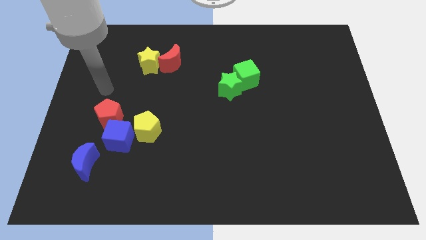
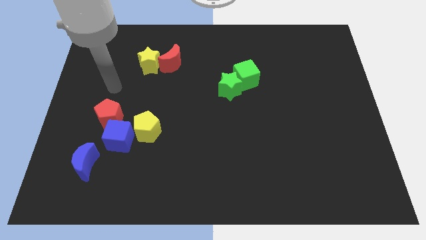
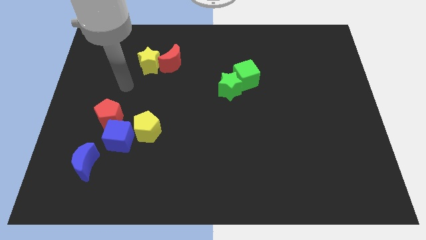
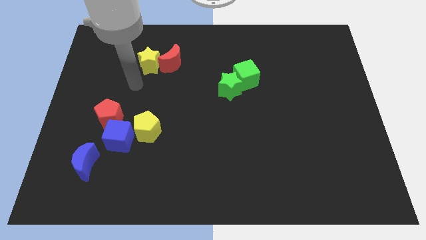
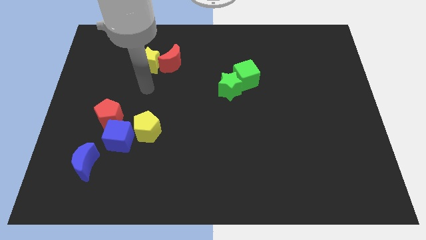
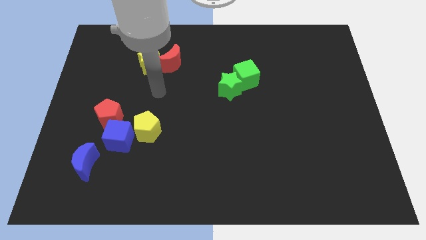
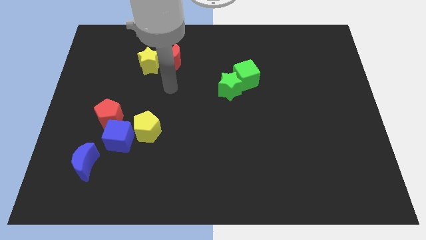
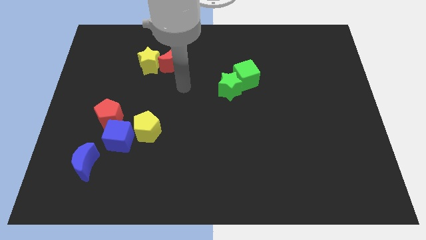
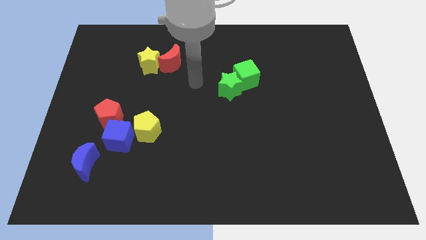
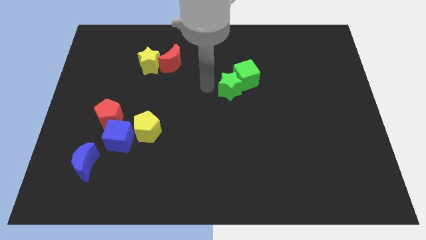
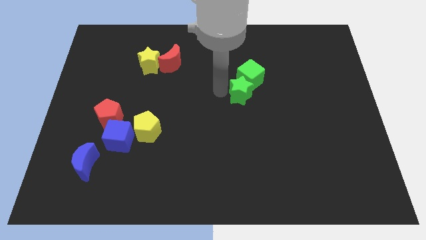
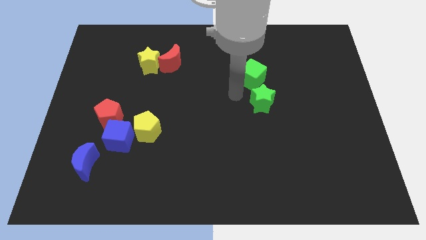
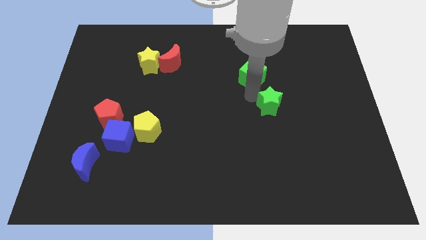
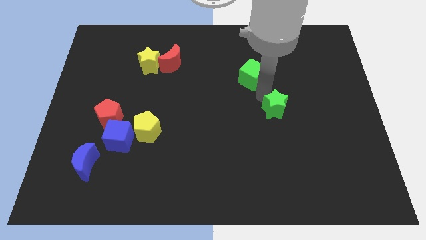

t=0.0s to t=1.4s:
pull the green cube apart from the green star

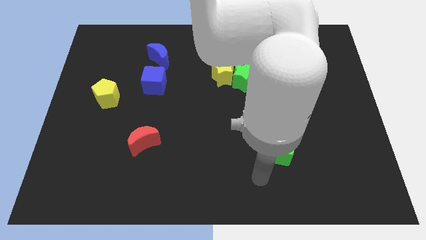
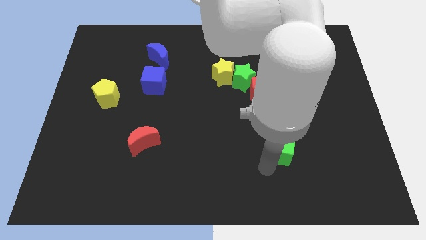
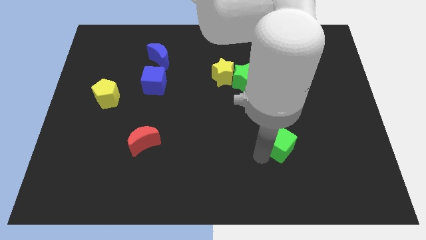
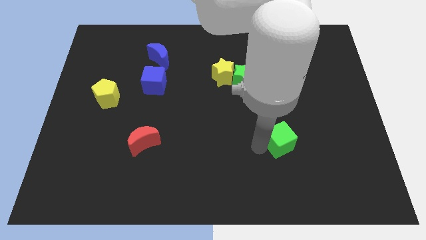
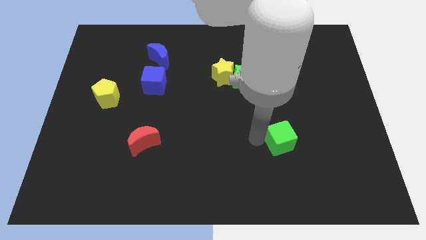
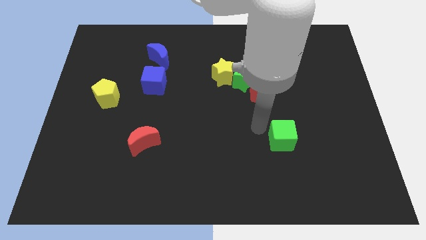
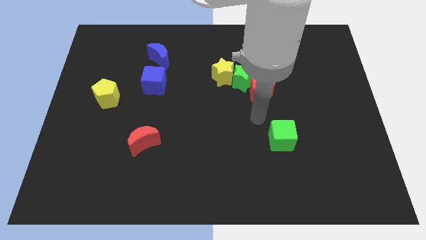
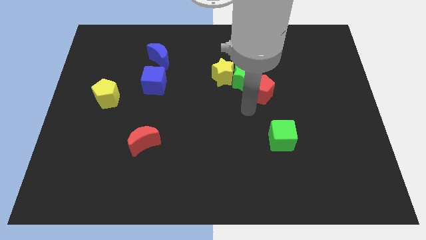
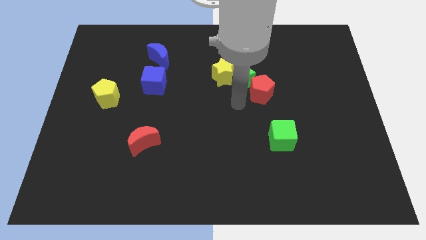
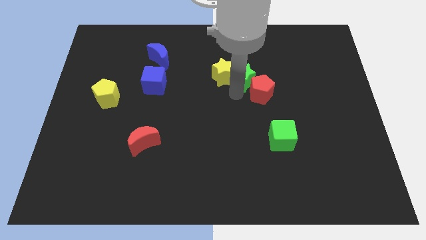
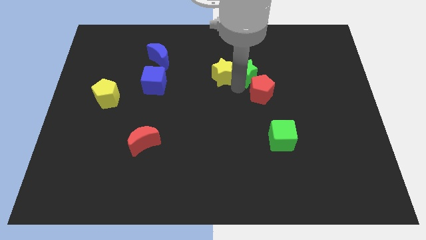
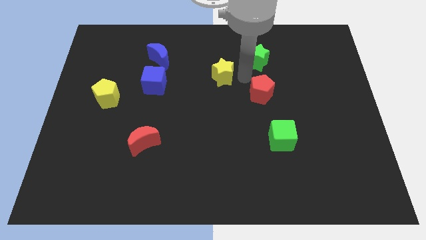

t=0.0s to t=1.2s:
move the red pentagon away from the green star

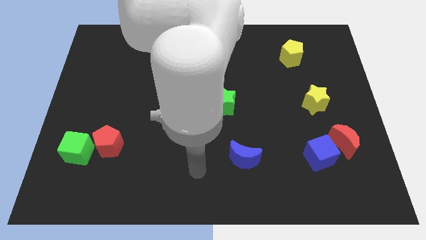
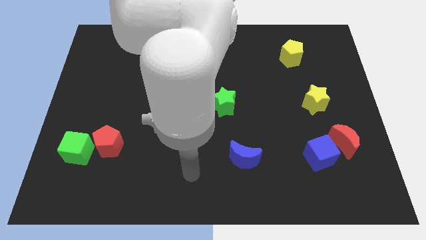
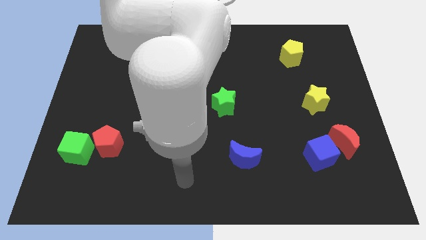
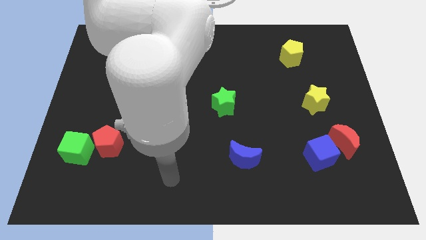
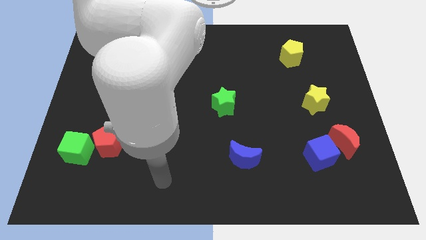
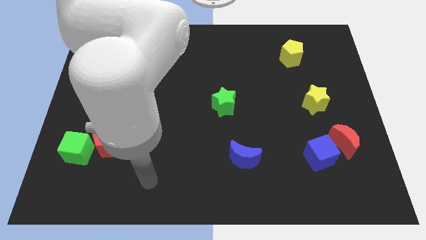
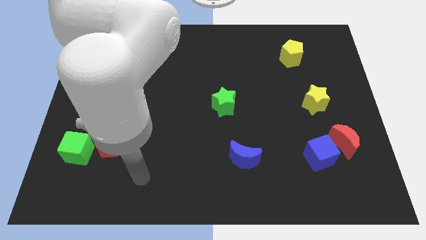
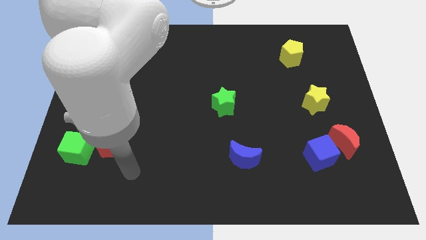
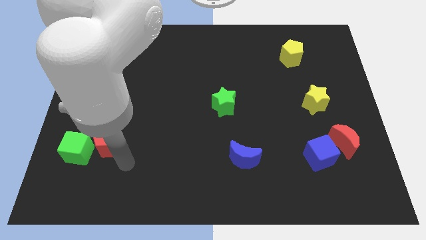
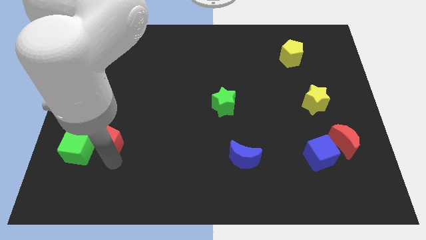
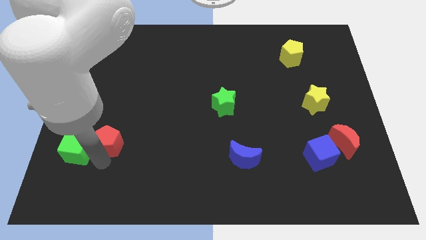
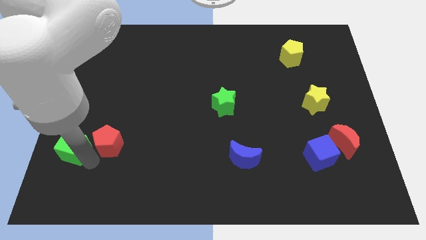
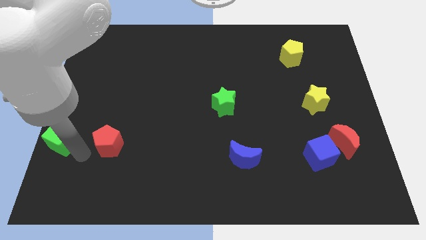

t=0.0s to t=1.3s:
pull the red pentagon apart from the green cube

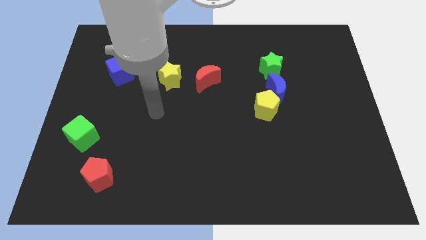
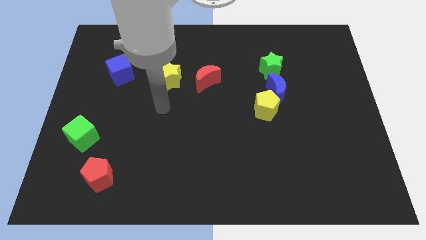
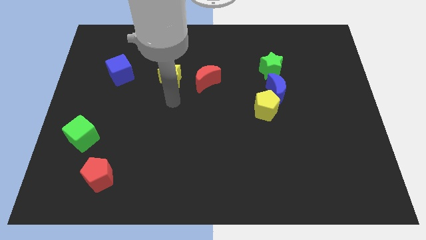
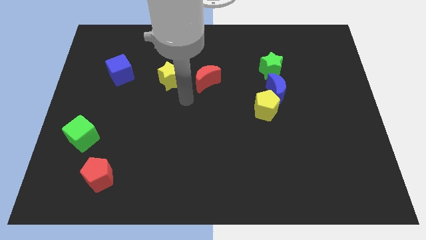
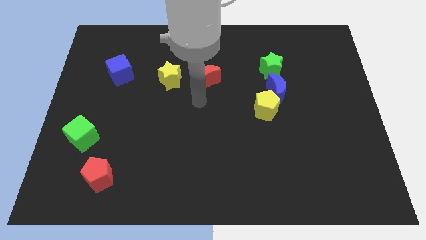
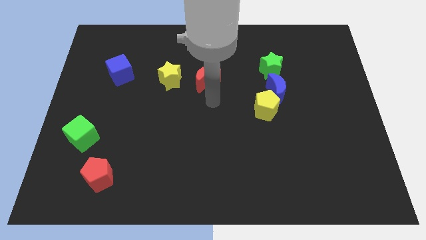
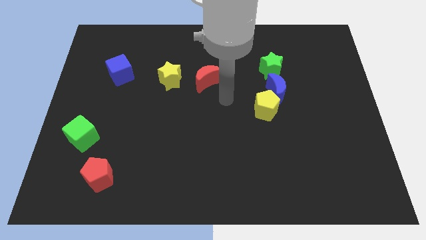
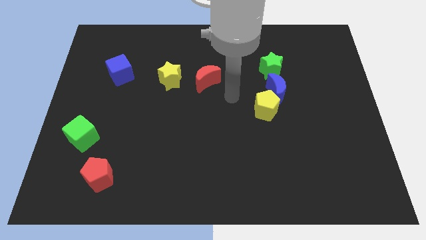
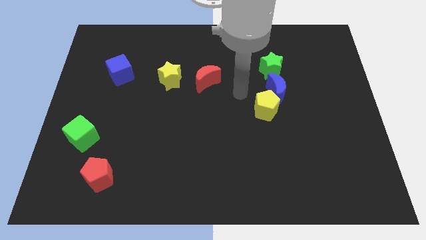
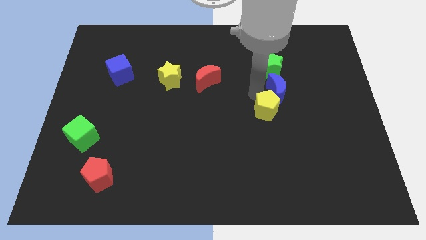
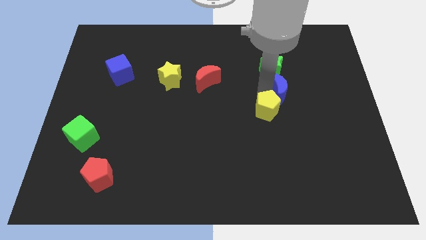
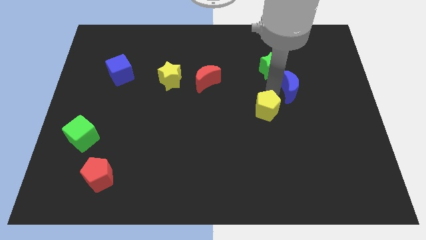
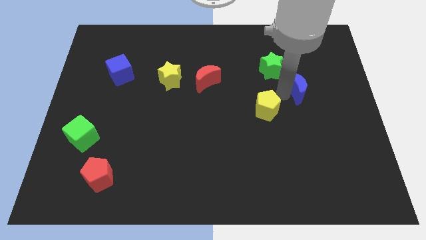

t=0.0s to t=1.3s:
separate the yellow pentagon from the blue moon

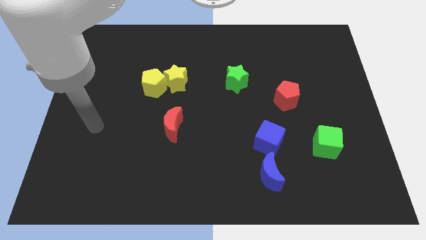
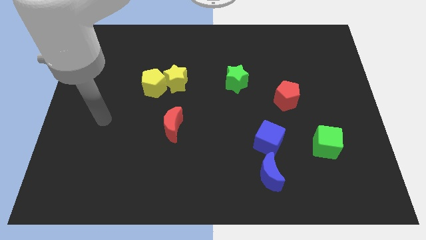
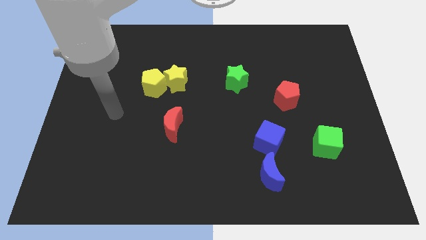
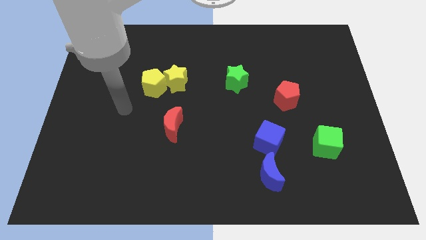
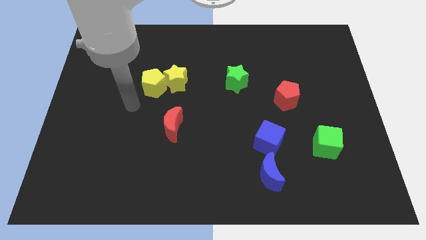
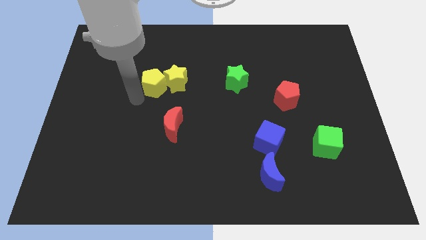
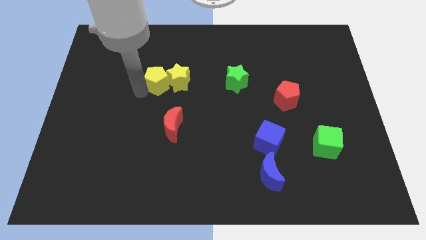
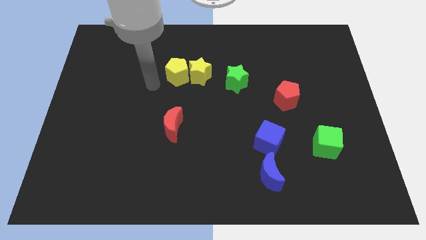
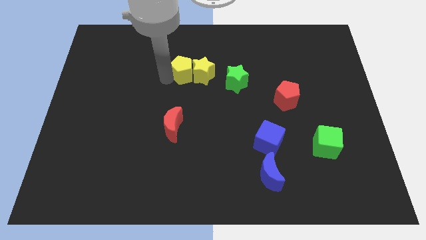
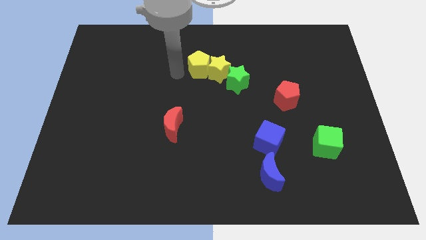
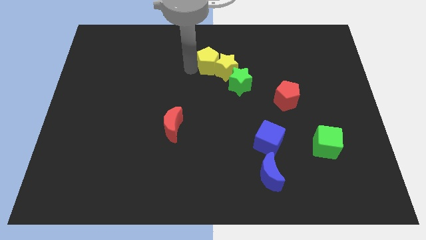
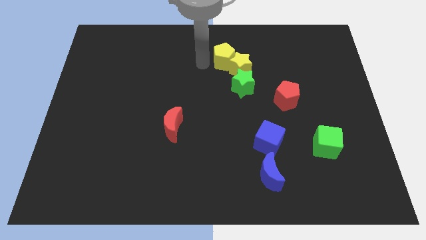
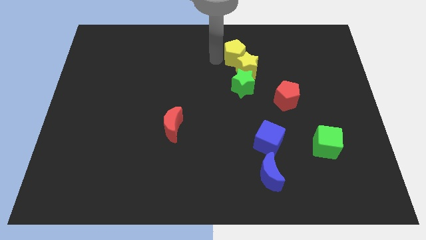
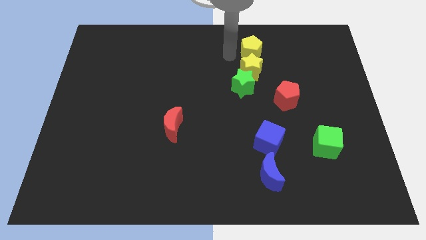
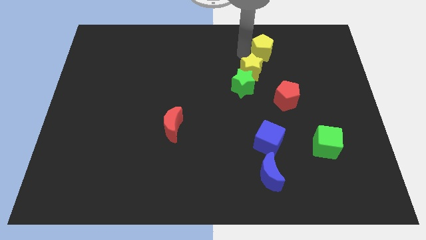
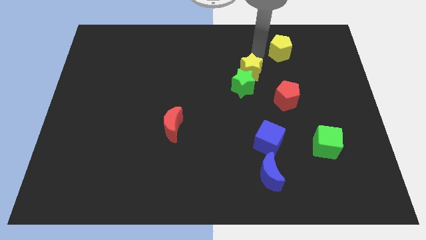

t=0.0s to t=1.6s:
pull the yellow star apart from the yellow pentagon

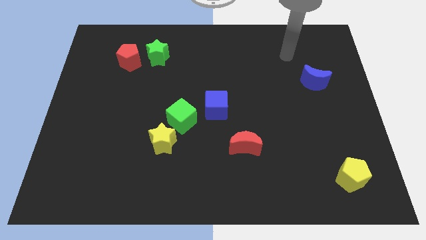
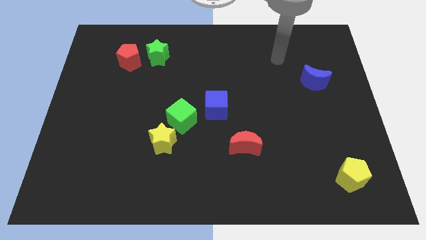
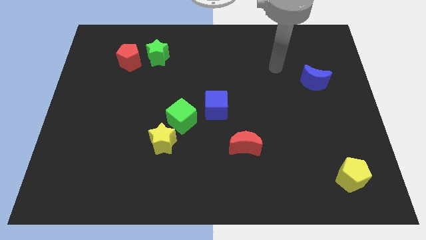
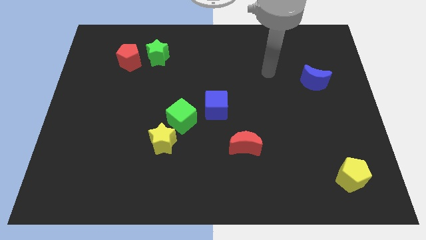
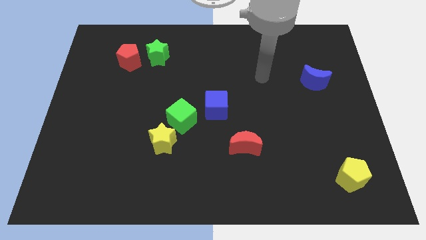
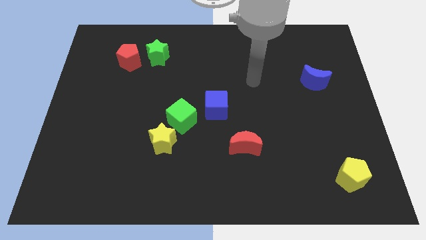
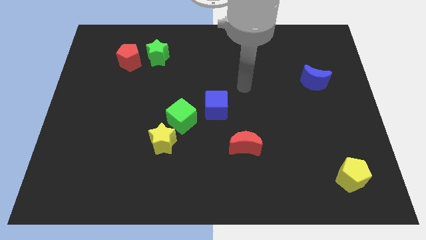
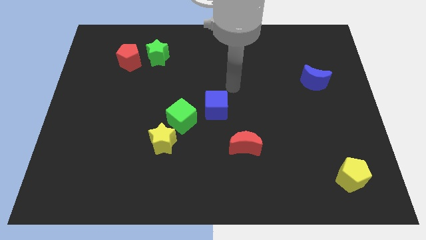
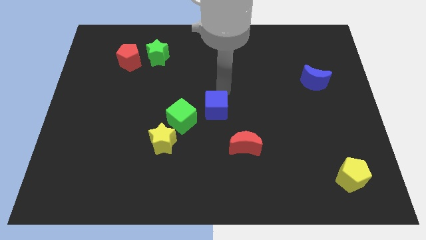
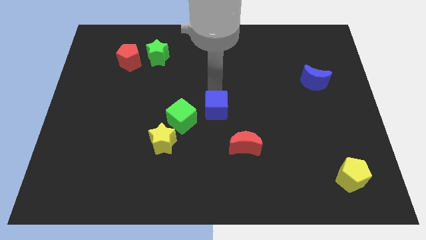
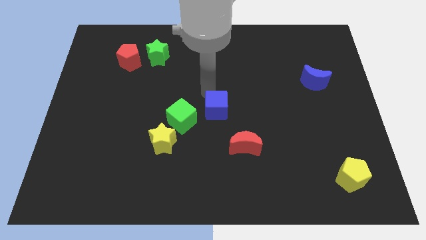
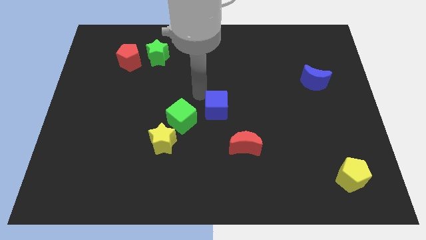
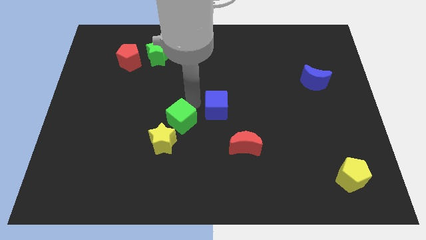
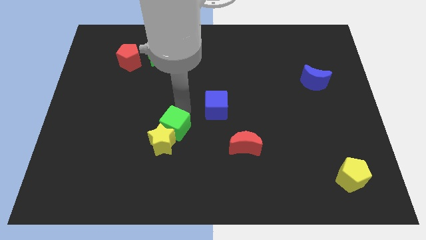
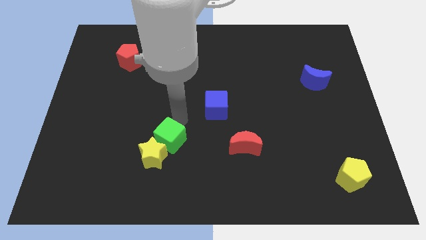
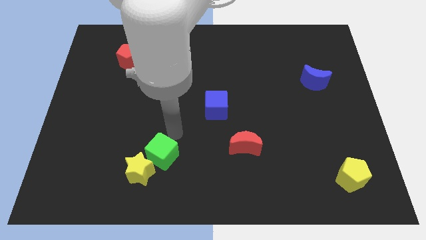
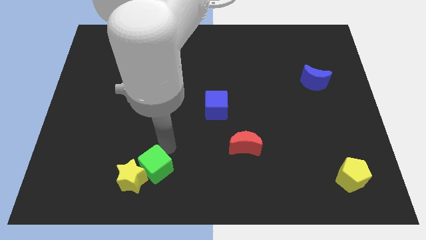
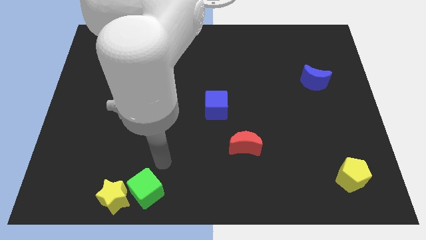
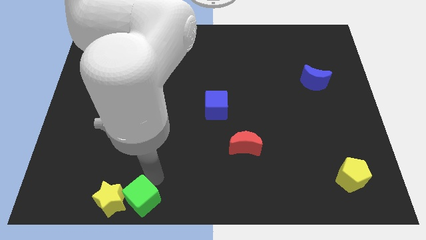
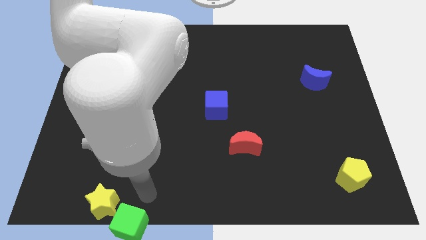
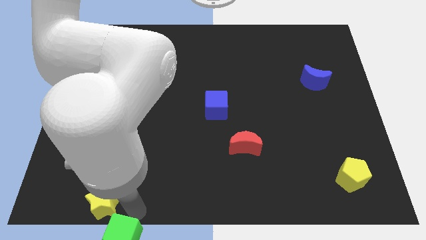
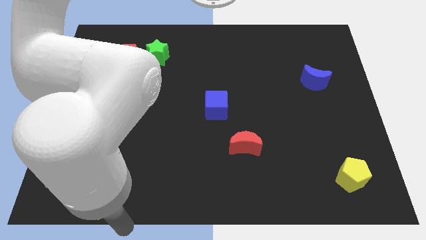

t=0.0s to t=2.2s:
pull the yellow star apart from the green cube

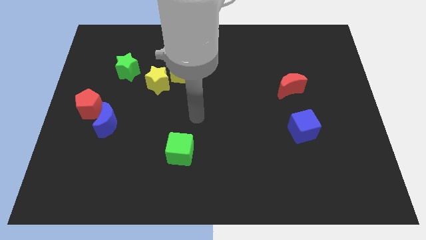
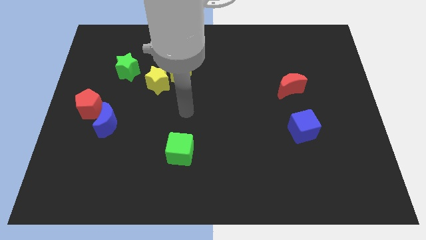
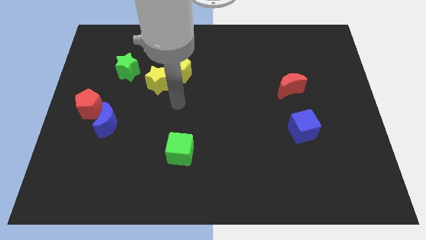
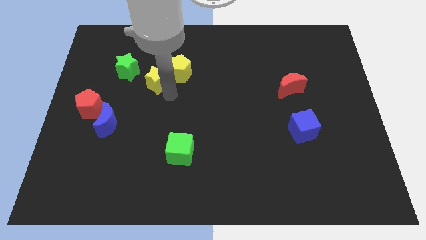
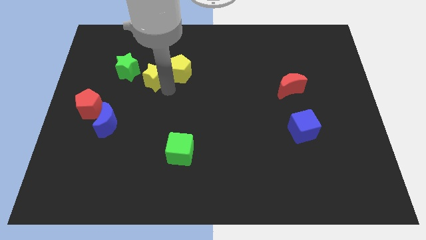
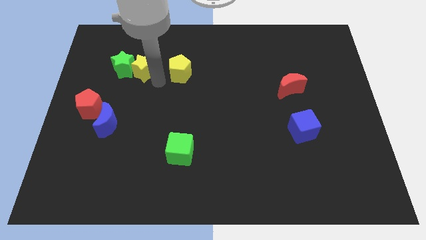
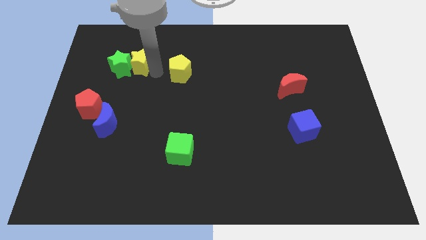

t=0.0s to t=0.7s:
separate the yellow pentagon from the yellow star
